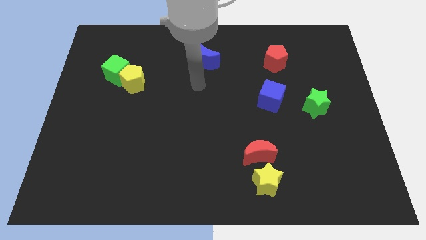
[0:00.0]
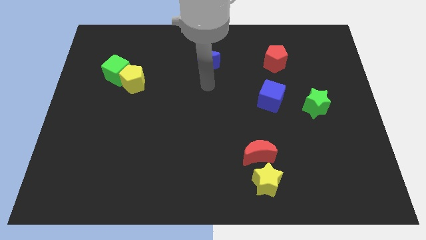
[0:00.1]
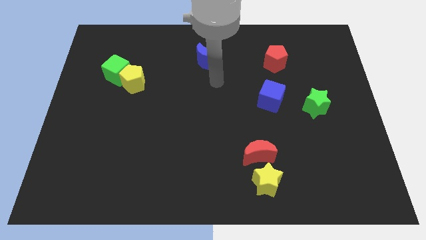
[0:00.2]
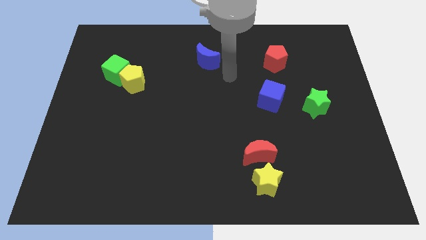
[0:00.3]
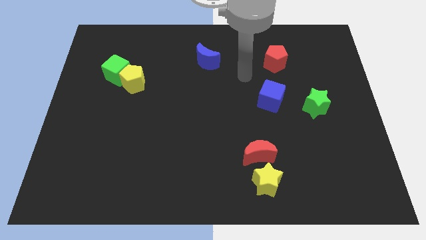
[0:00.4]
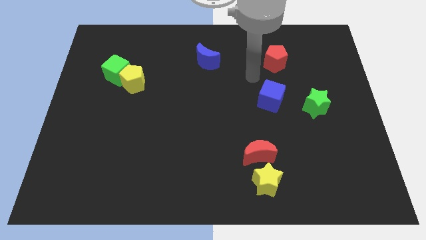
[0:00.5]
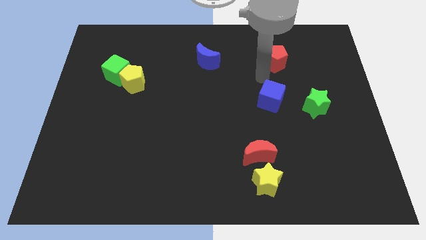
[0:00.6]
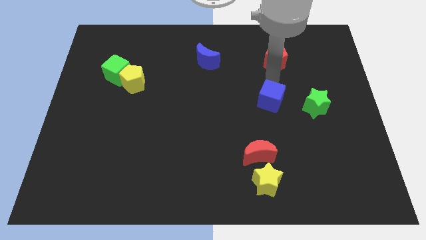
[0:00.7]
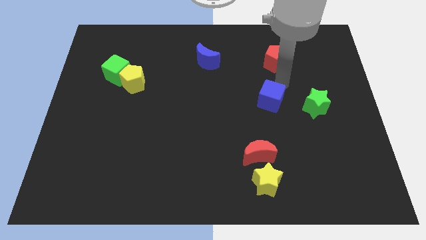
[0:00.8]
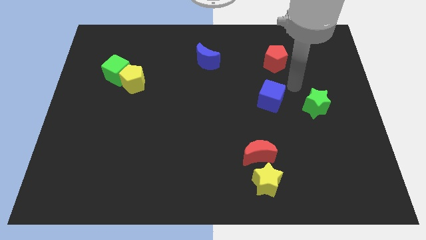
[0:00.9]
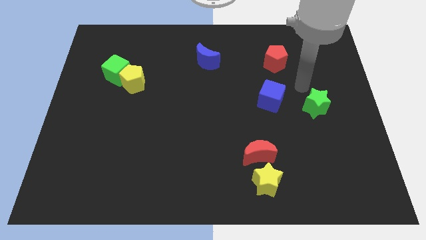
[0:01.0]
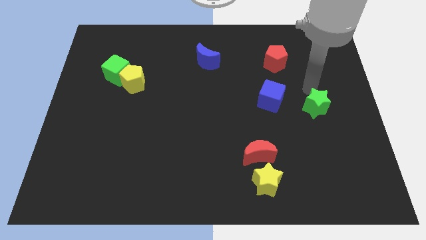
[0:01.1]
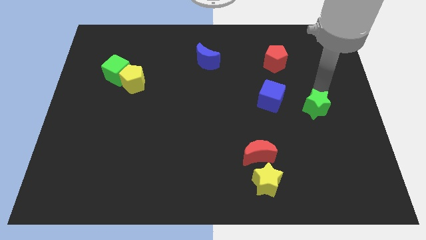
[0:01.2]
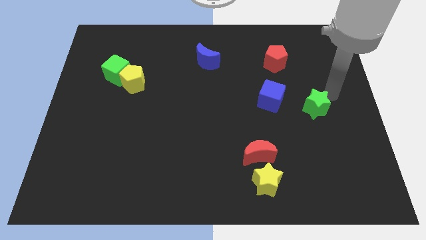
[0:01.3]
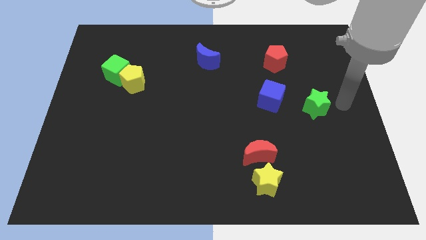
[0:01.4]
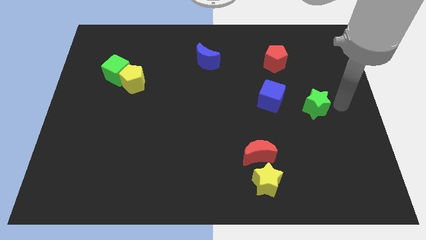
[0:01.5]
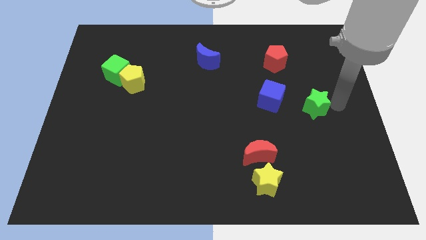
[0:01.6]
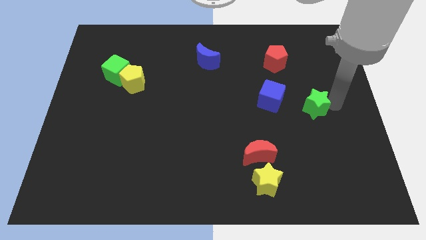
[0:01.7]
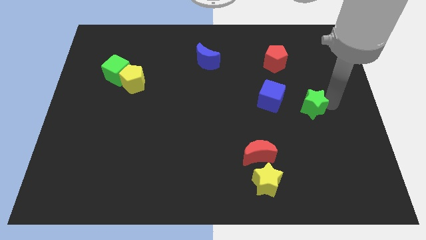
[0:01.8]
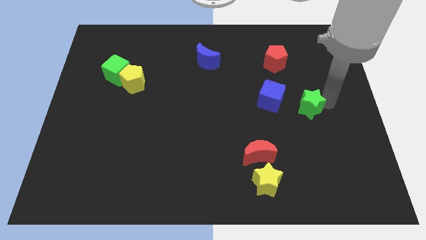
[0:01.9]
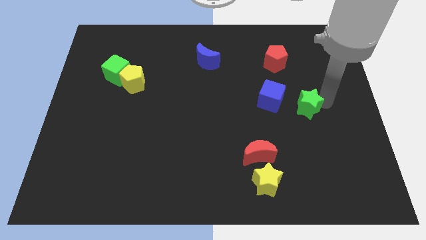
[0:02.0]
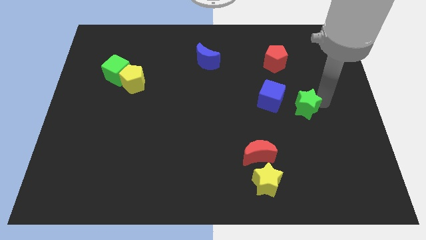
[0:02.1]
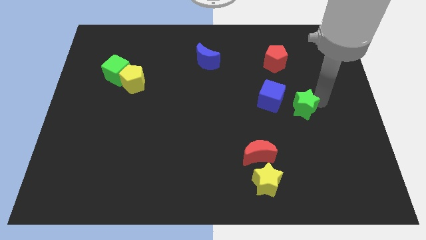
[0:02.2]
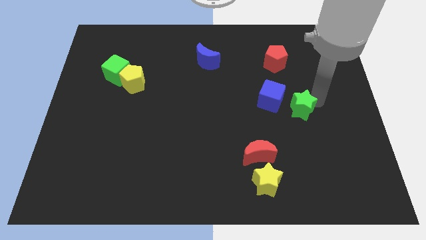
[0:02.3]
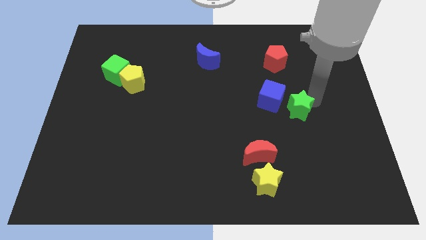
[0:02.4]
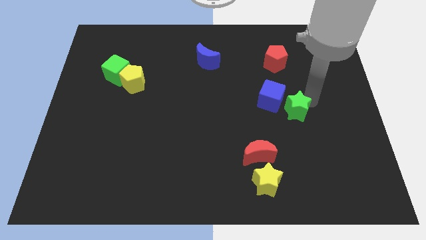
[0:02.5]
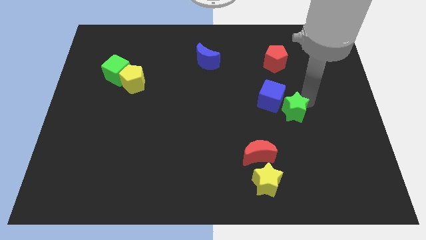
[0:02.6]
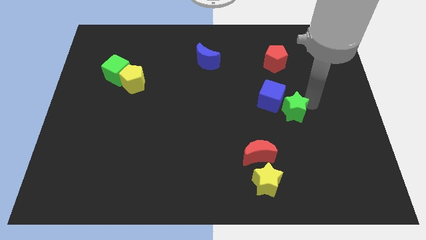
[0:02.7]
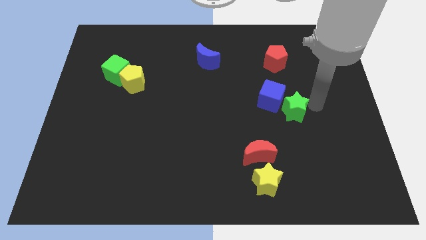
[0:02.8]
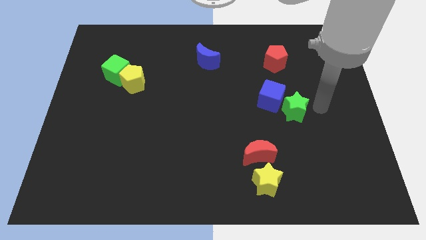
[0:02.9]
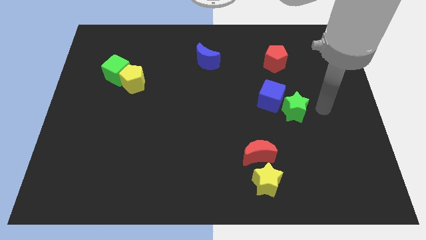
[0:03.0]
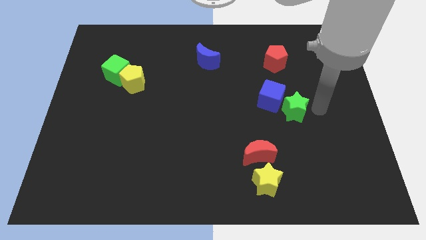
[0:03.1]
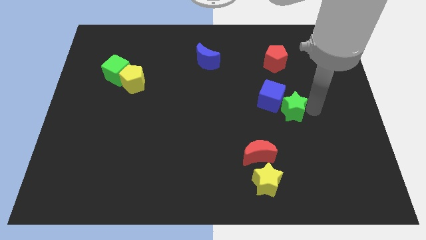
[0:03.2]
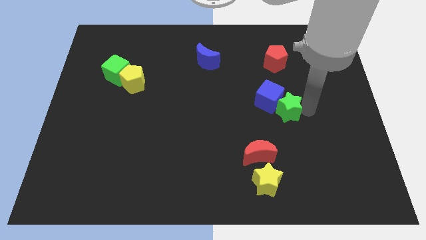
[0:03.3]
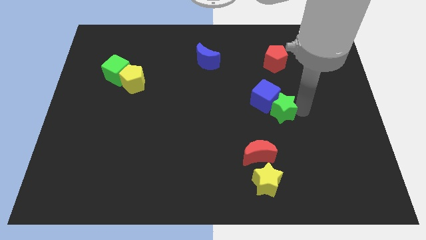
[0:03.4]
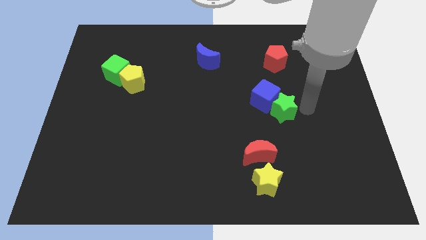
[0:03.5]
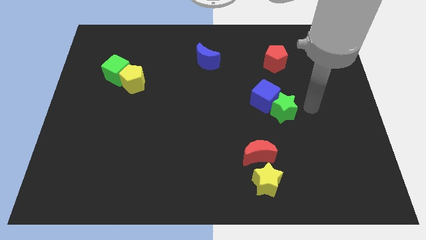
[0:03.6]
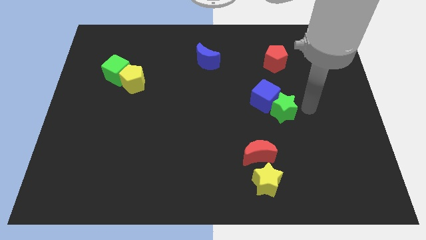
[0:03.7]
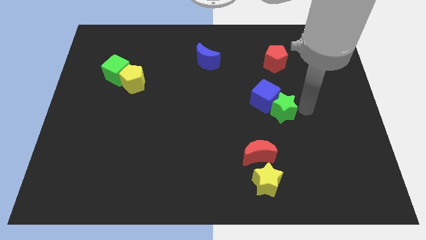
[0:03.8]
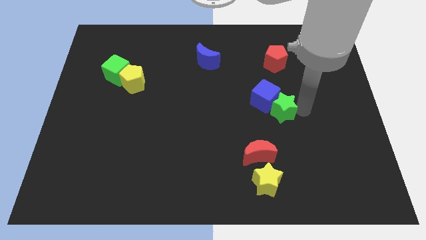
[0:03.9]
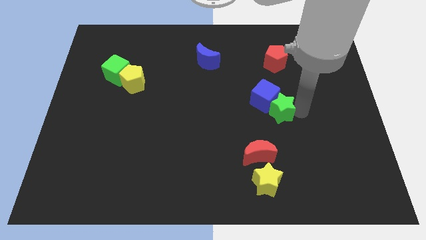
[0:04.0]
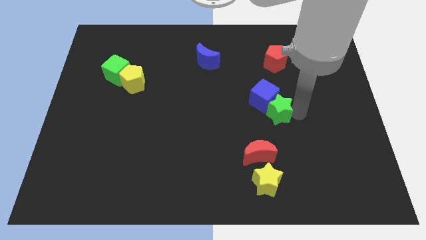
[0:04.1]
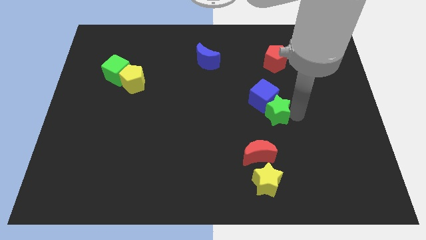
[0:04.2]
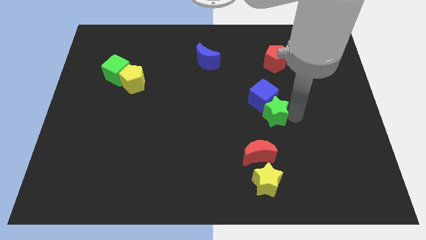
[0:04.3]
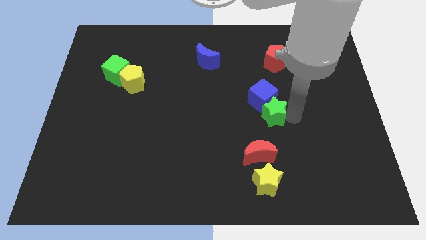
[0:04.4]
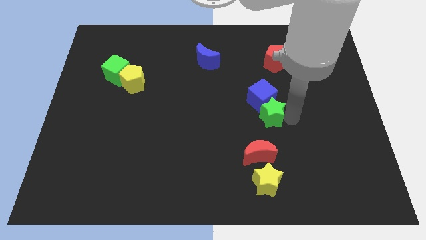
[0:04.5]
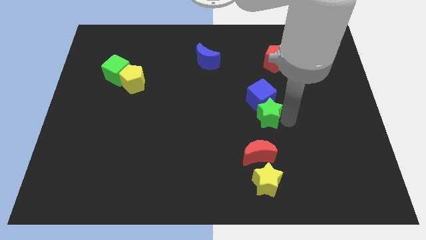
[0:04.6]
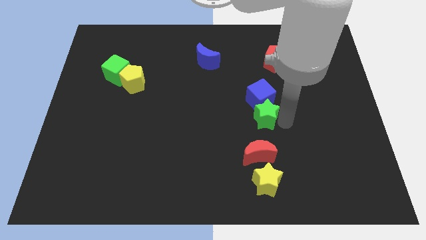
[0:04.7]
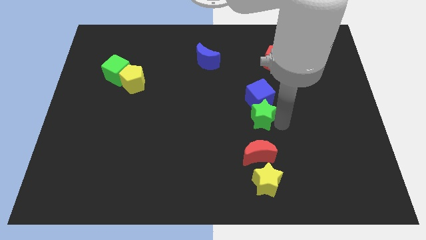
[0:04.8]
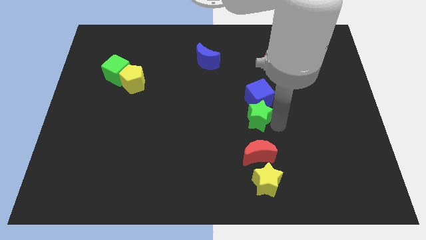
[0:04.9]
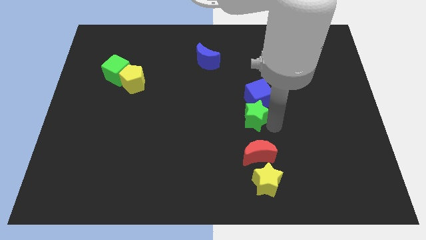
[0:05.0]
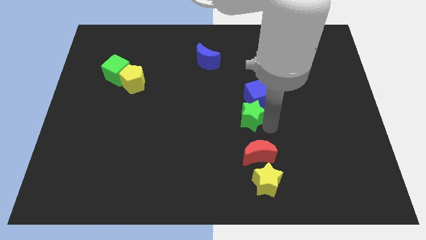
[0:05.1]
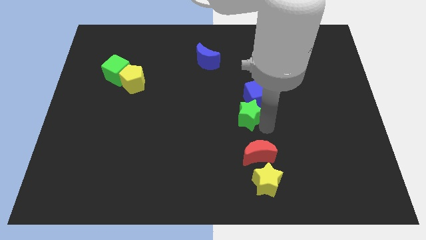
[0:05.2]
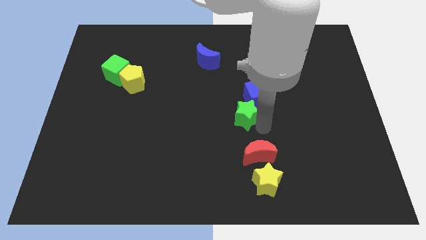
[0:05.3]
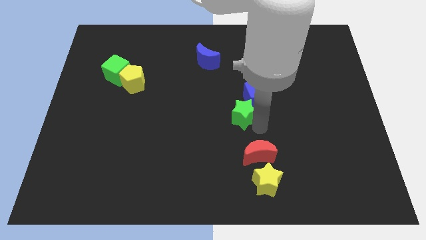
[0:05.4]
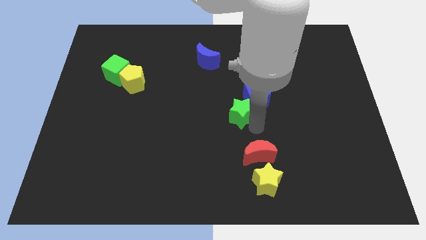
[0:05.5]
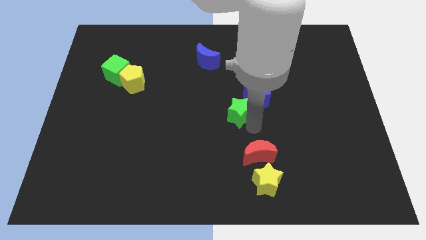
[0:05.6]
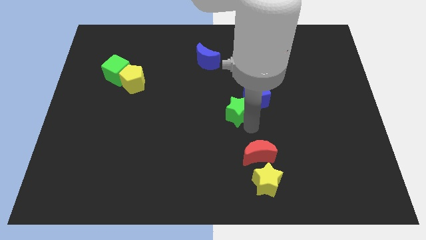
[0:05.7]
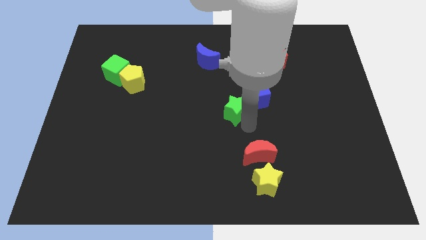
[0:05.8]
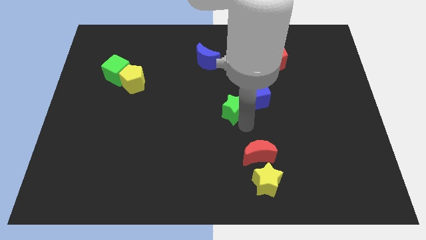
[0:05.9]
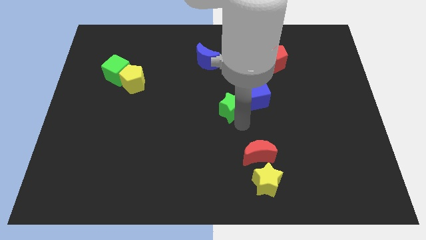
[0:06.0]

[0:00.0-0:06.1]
move the green star left

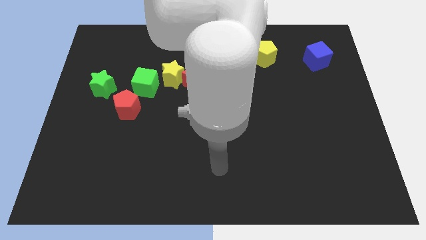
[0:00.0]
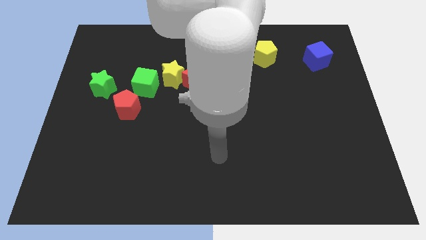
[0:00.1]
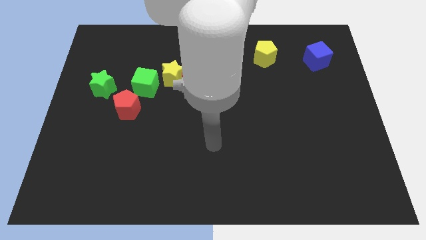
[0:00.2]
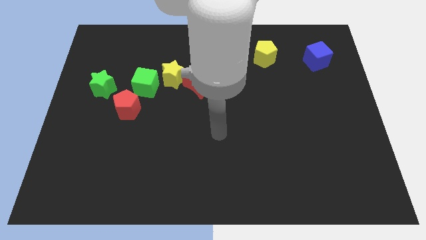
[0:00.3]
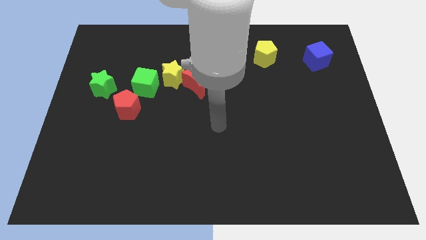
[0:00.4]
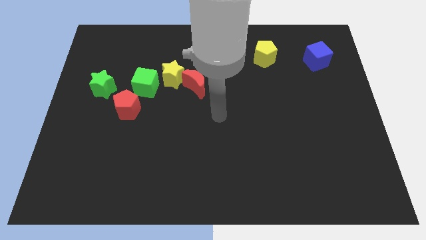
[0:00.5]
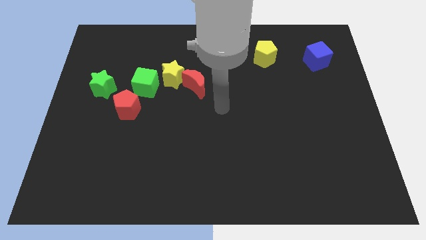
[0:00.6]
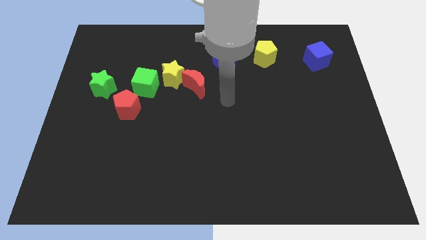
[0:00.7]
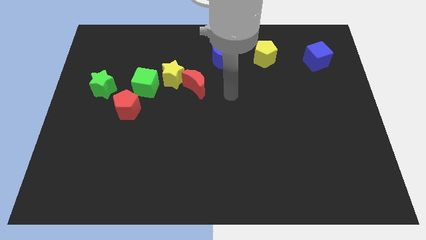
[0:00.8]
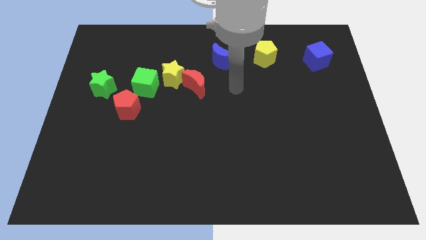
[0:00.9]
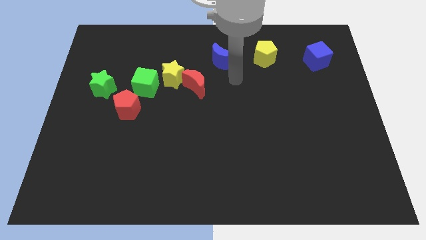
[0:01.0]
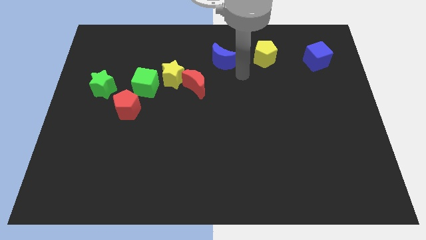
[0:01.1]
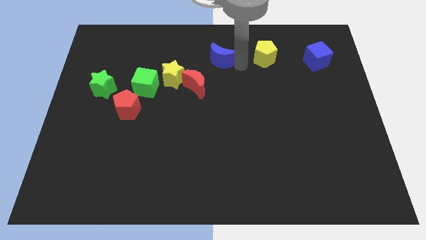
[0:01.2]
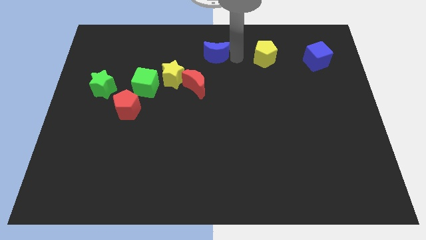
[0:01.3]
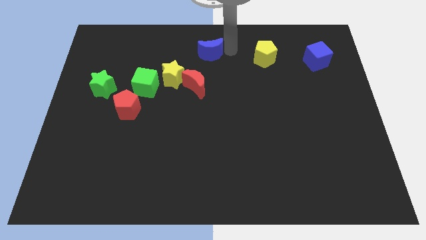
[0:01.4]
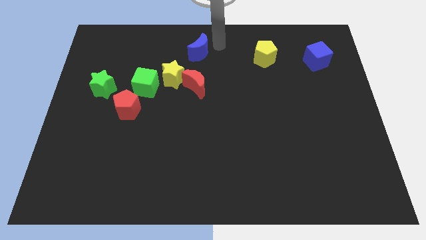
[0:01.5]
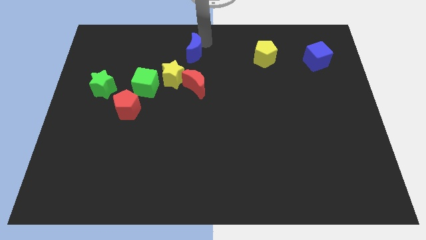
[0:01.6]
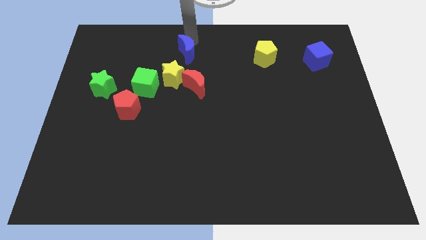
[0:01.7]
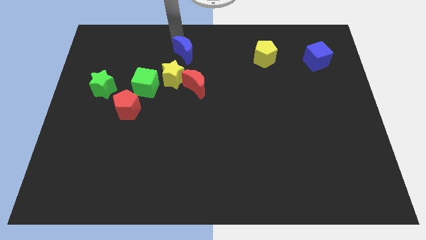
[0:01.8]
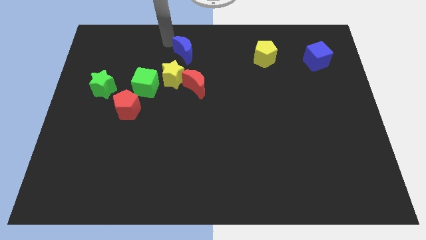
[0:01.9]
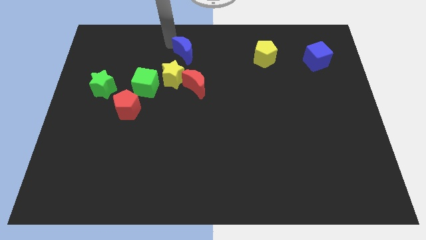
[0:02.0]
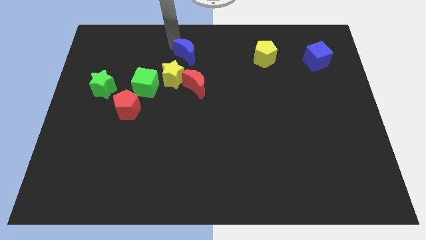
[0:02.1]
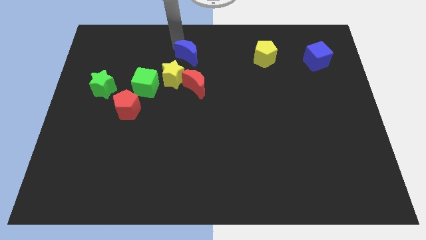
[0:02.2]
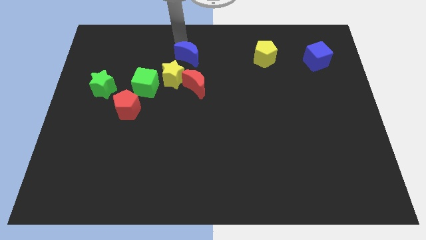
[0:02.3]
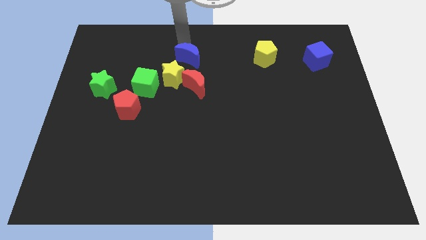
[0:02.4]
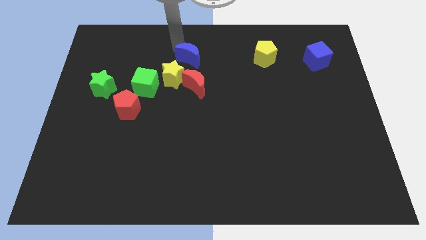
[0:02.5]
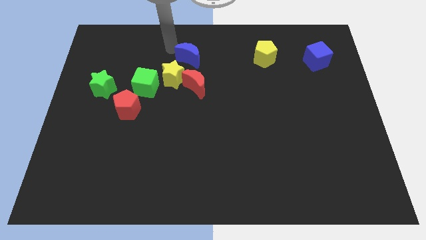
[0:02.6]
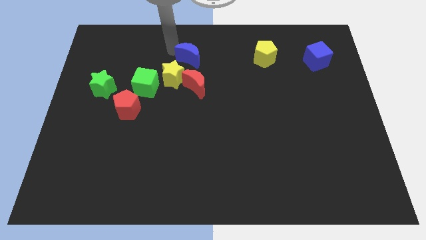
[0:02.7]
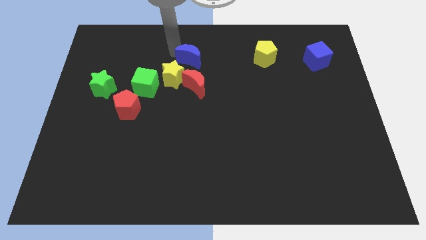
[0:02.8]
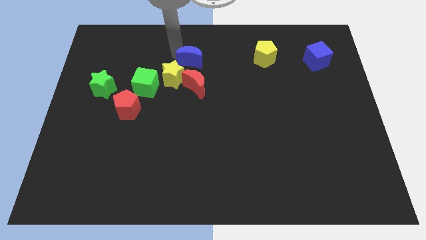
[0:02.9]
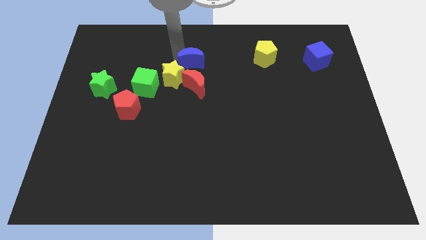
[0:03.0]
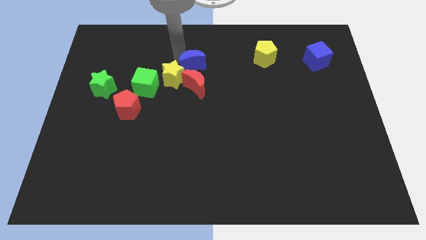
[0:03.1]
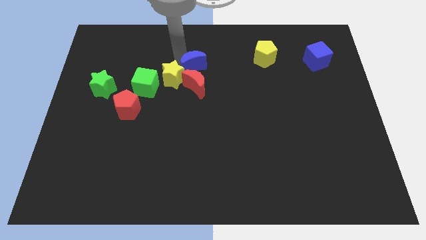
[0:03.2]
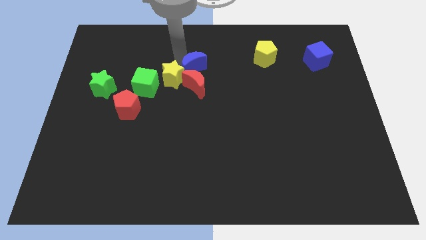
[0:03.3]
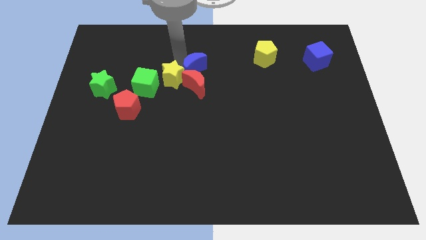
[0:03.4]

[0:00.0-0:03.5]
slightly push the blue moon down and then to the left
